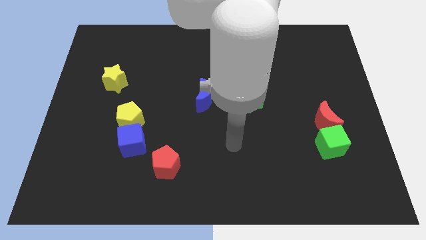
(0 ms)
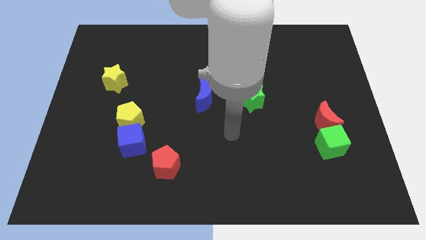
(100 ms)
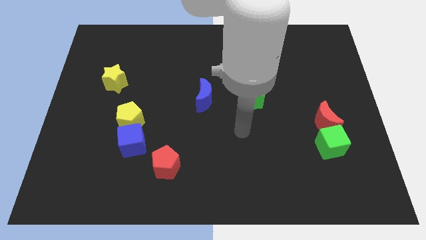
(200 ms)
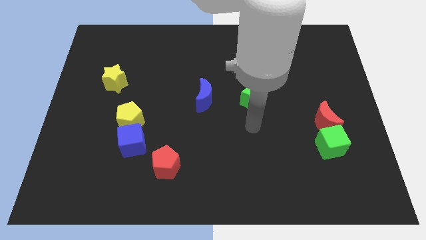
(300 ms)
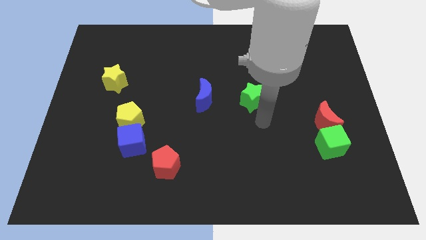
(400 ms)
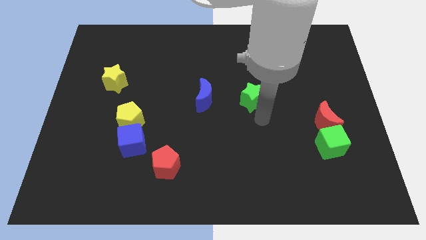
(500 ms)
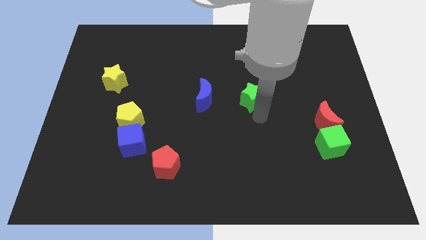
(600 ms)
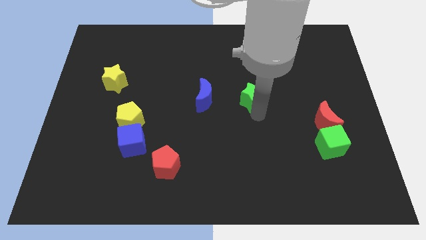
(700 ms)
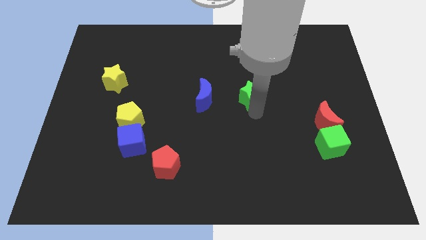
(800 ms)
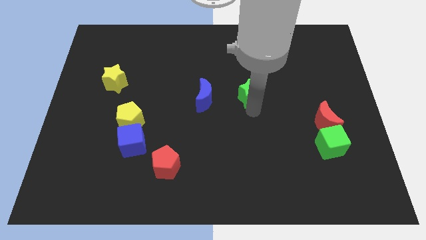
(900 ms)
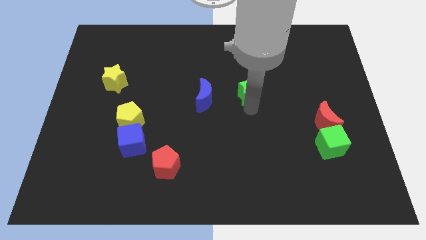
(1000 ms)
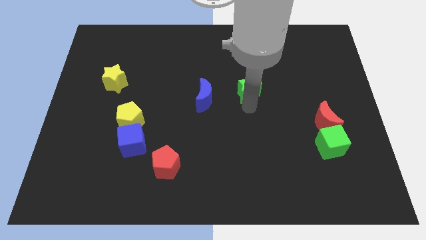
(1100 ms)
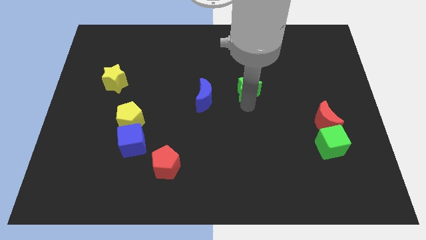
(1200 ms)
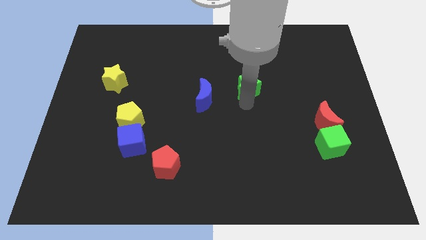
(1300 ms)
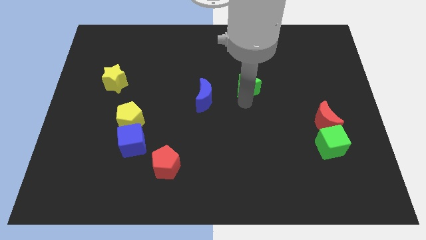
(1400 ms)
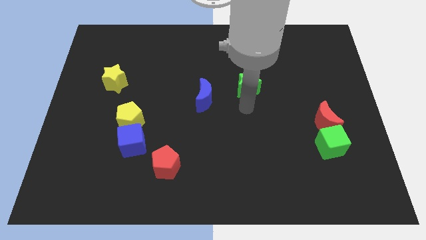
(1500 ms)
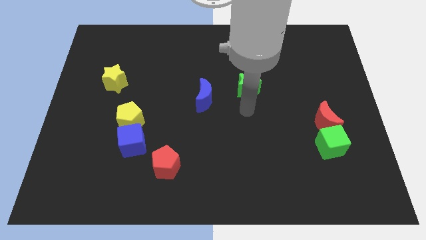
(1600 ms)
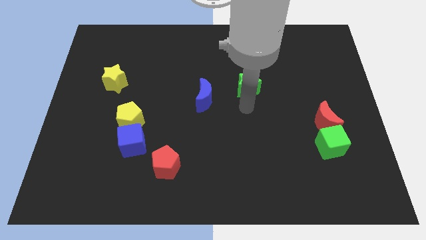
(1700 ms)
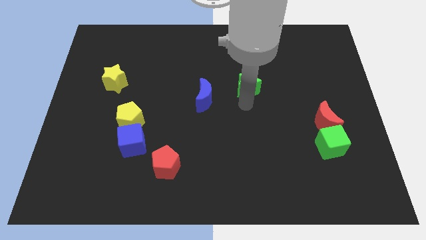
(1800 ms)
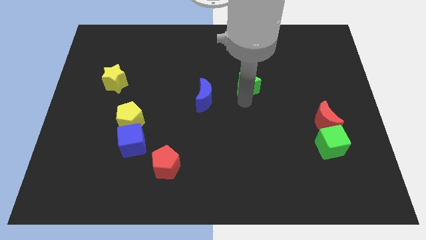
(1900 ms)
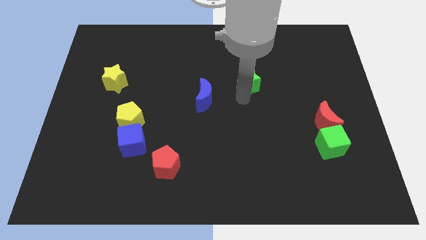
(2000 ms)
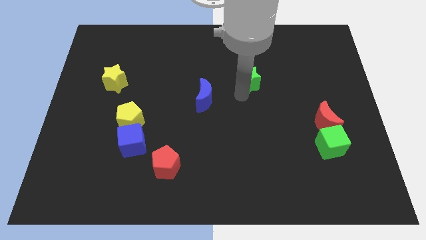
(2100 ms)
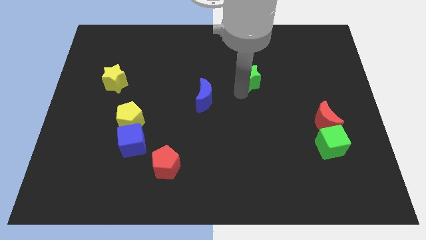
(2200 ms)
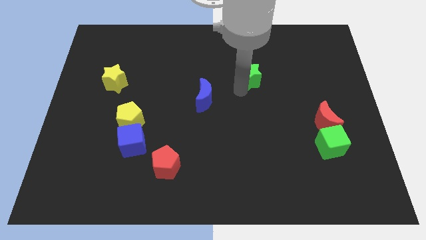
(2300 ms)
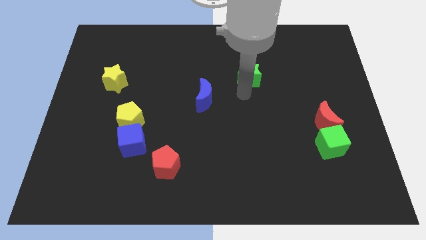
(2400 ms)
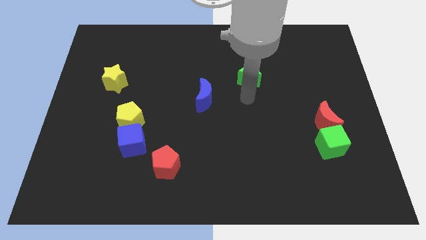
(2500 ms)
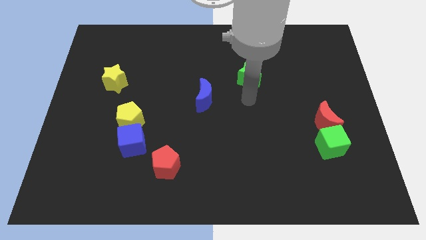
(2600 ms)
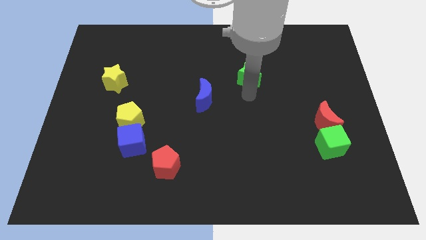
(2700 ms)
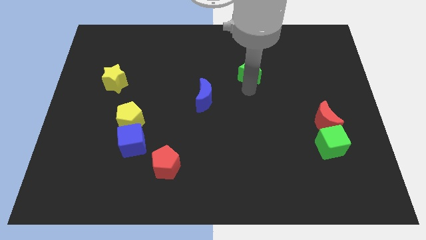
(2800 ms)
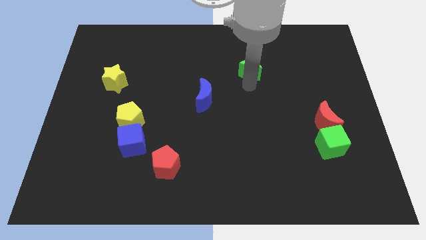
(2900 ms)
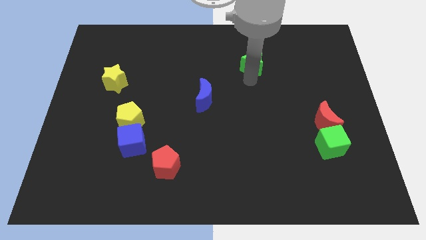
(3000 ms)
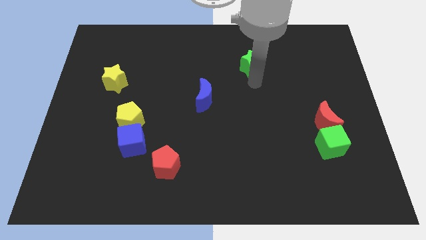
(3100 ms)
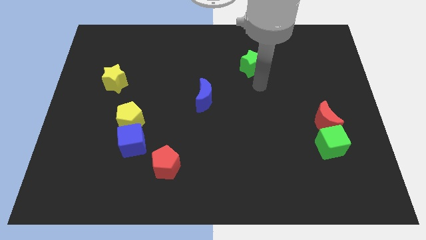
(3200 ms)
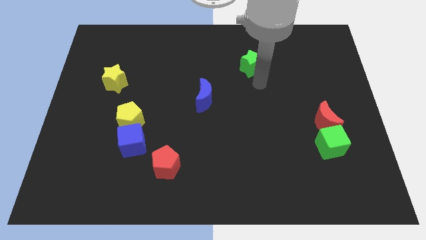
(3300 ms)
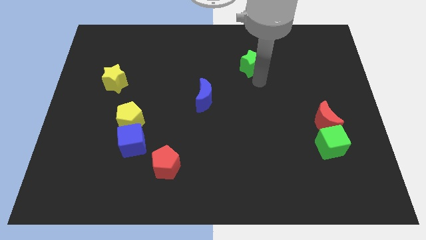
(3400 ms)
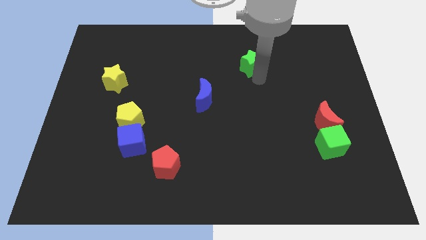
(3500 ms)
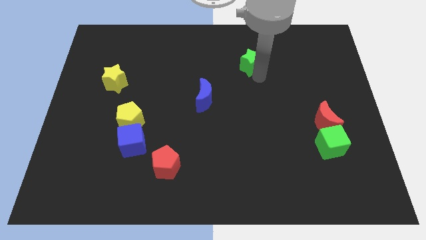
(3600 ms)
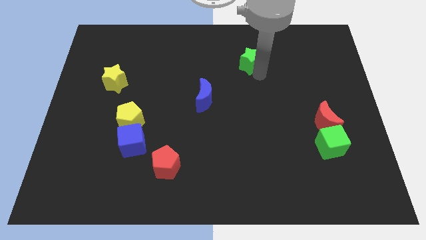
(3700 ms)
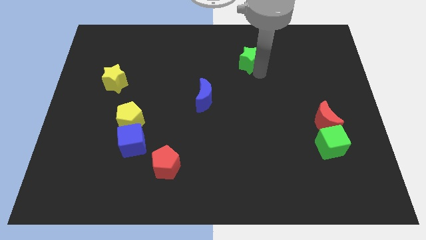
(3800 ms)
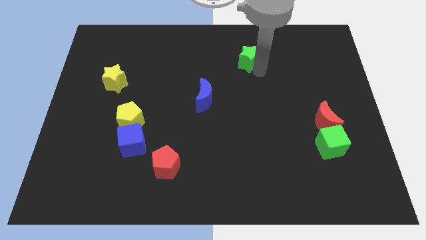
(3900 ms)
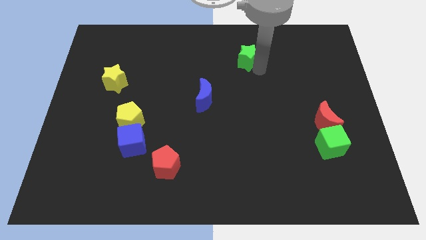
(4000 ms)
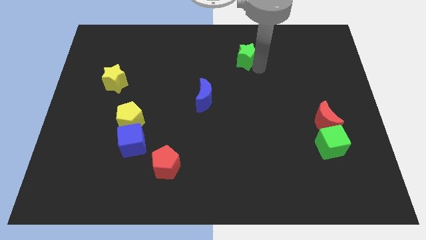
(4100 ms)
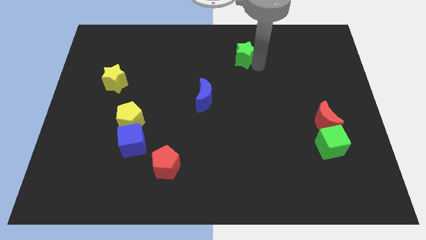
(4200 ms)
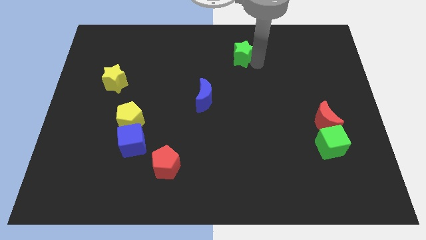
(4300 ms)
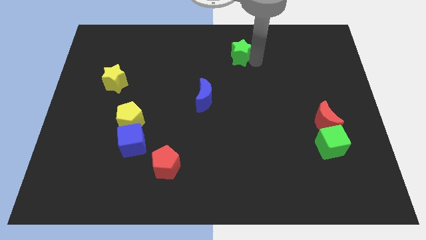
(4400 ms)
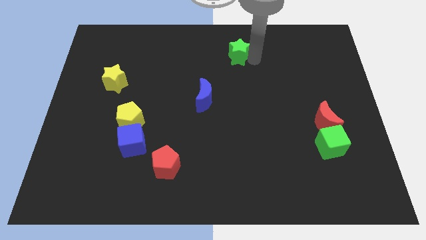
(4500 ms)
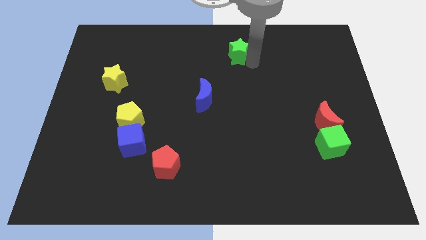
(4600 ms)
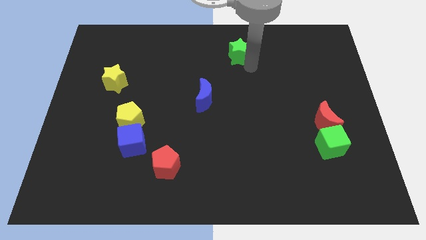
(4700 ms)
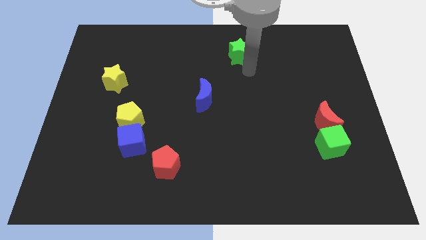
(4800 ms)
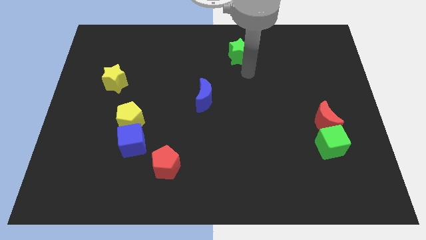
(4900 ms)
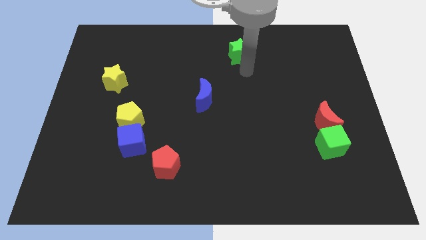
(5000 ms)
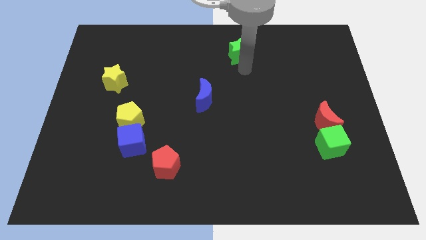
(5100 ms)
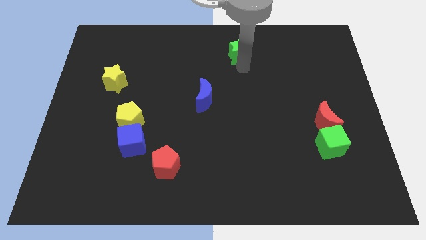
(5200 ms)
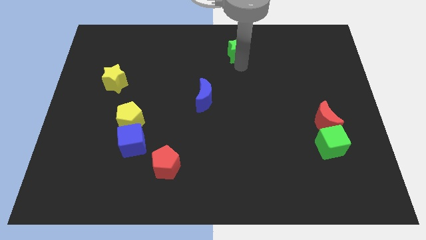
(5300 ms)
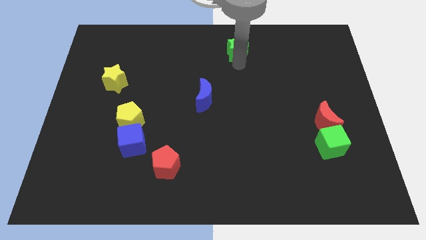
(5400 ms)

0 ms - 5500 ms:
slide the green star to the top side

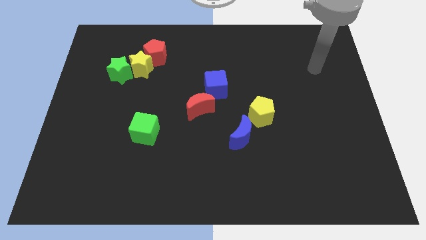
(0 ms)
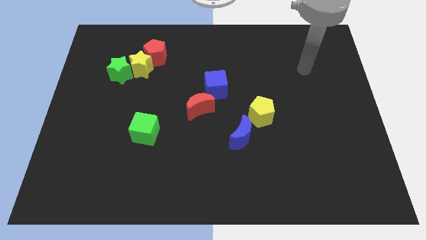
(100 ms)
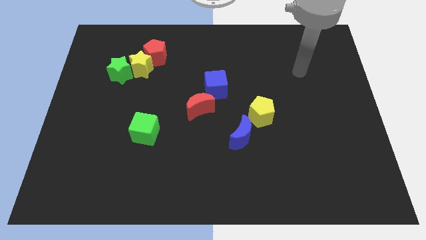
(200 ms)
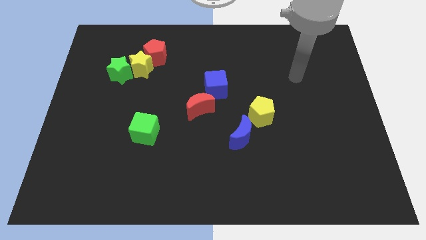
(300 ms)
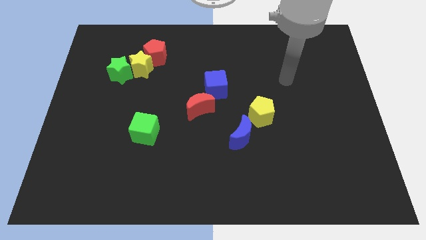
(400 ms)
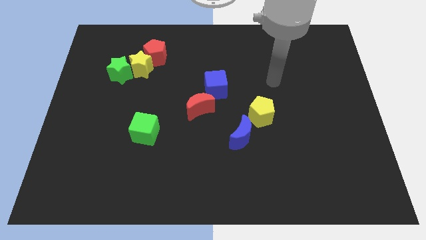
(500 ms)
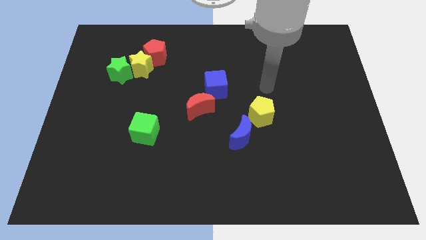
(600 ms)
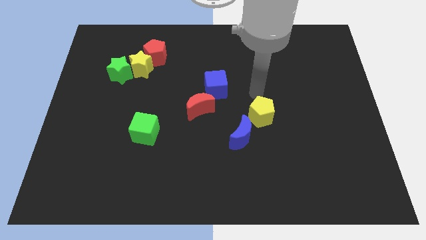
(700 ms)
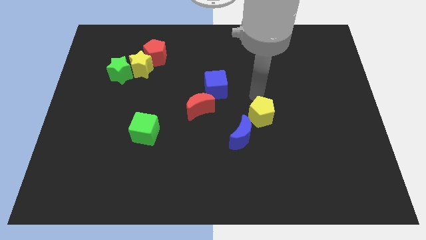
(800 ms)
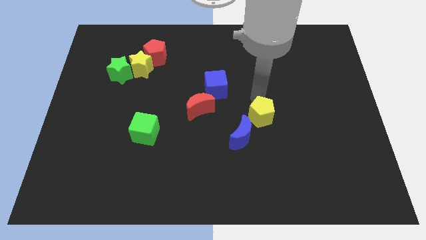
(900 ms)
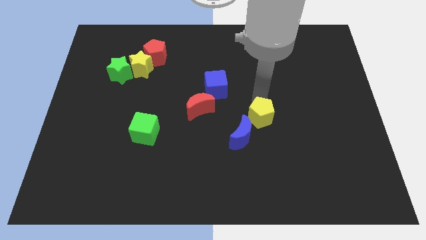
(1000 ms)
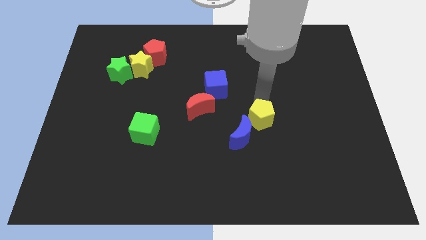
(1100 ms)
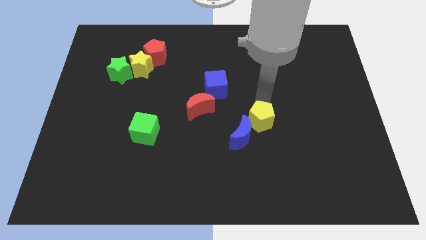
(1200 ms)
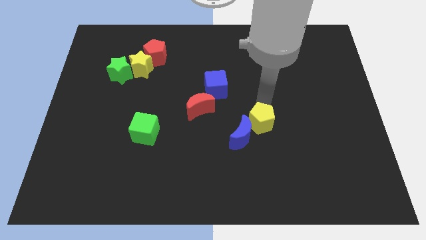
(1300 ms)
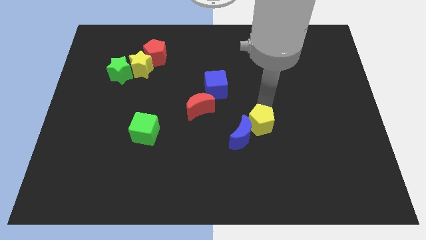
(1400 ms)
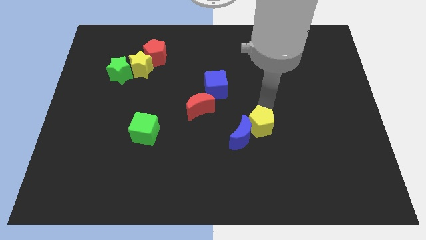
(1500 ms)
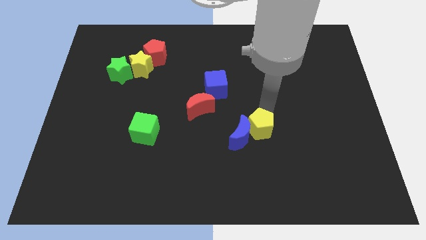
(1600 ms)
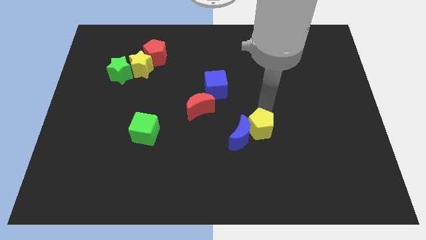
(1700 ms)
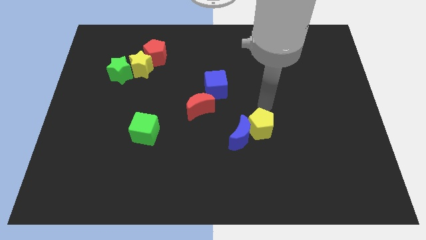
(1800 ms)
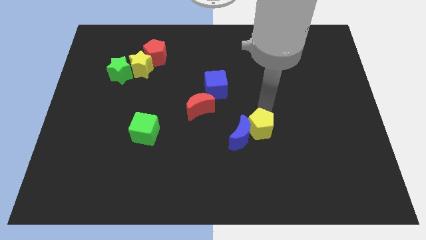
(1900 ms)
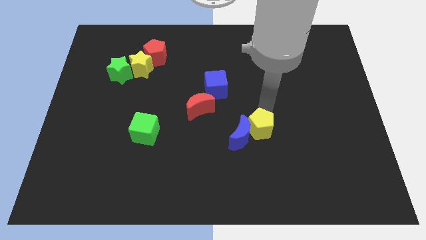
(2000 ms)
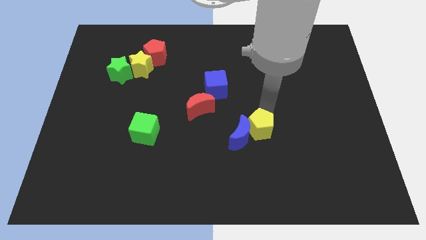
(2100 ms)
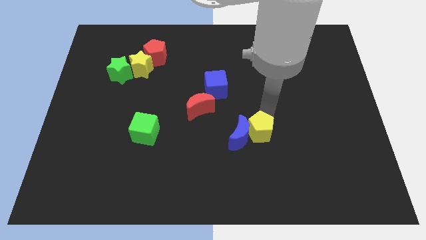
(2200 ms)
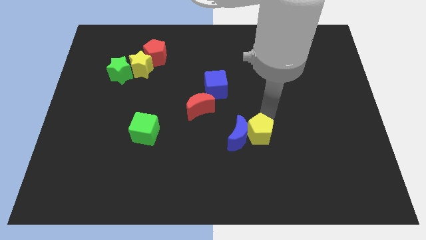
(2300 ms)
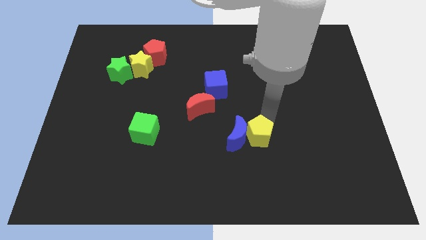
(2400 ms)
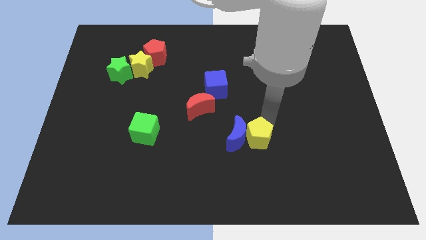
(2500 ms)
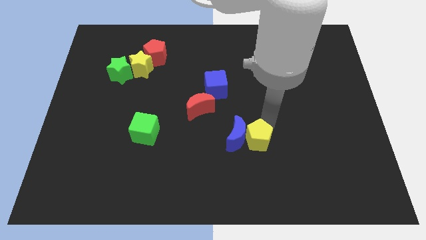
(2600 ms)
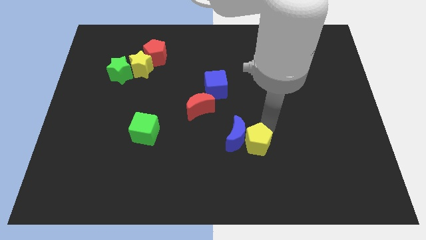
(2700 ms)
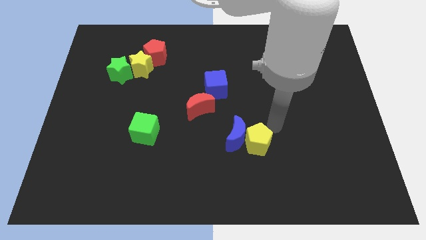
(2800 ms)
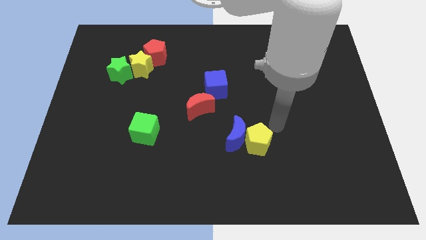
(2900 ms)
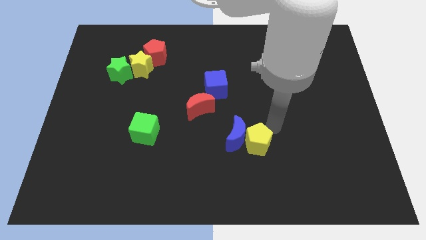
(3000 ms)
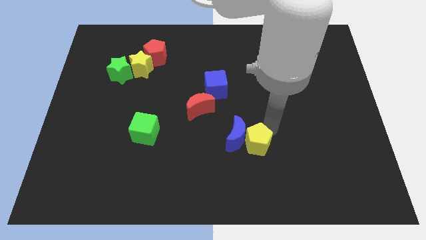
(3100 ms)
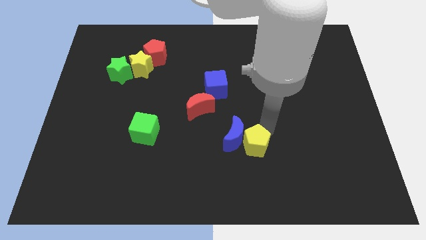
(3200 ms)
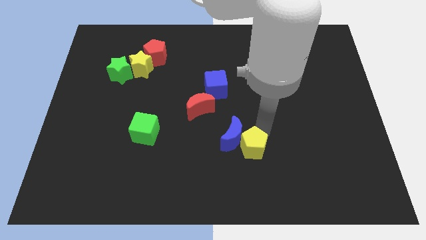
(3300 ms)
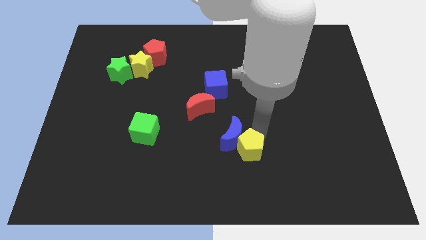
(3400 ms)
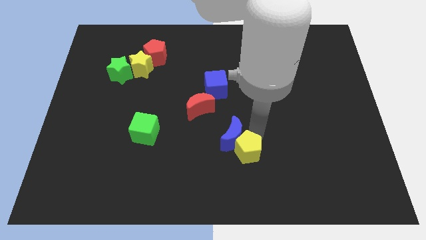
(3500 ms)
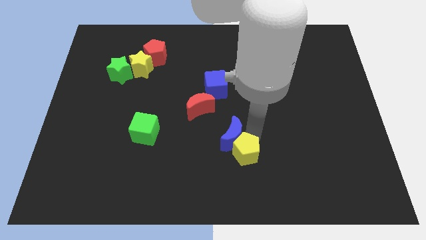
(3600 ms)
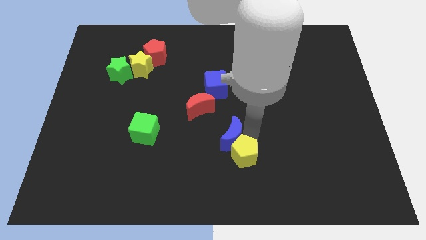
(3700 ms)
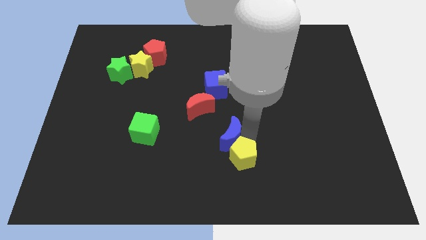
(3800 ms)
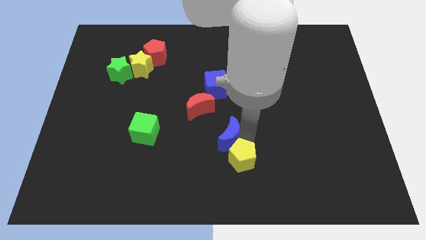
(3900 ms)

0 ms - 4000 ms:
move the yellow pentagon to the bottom side
